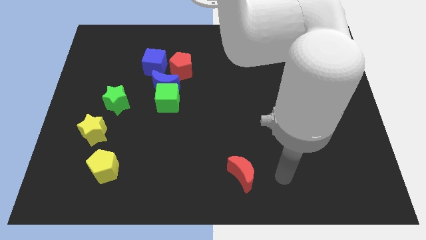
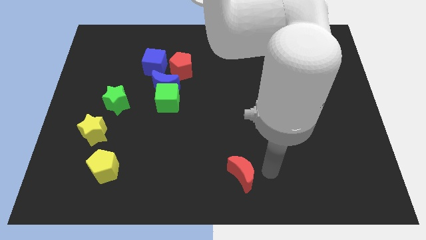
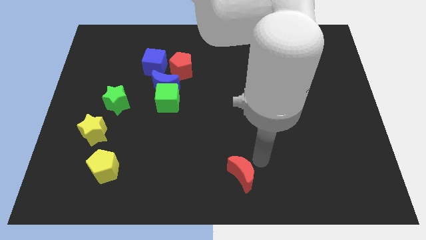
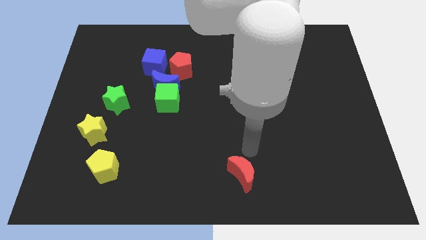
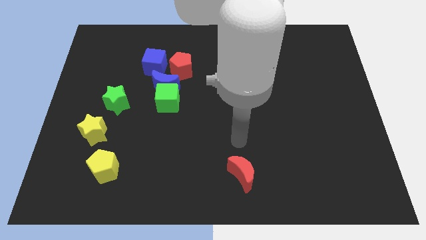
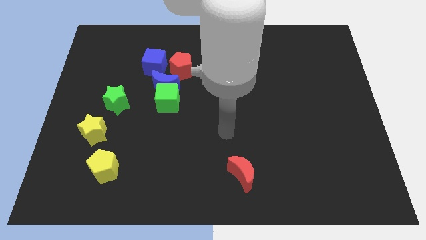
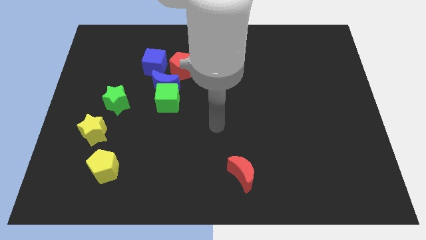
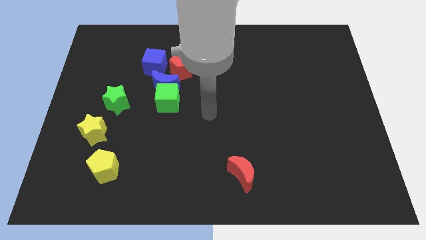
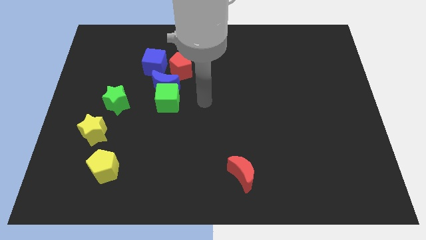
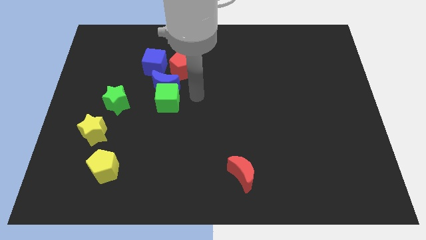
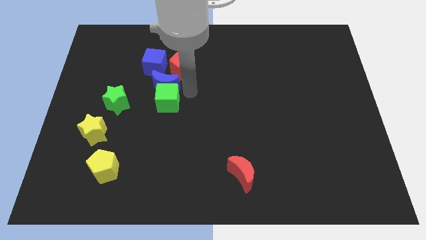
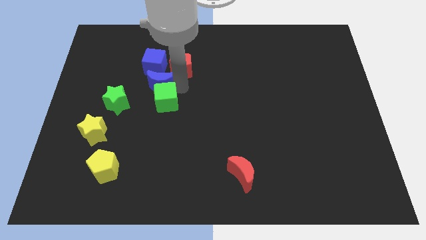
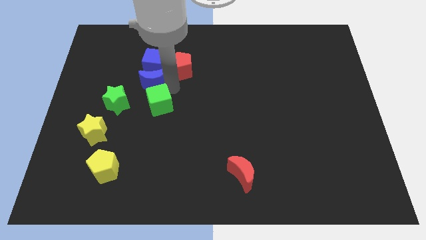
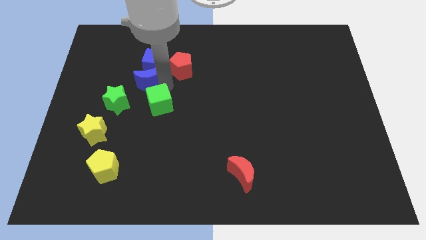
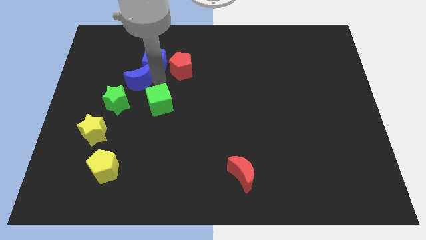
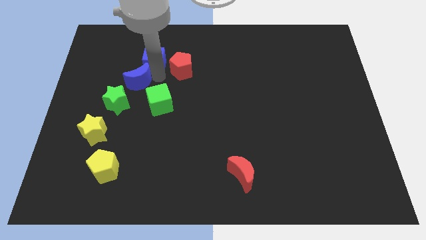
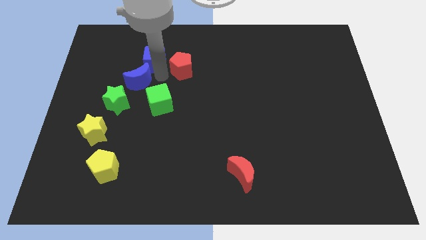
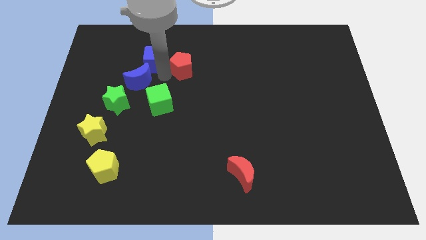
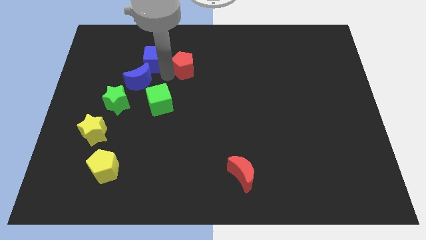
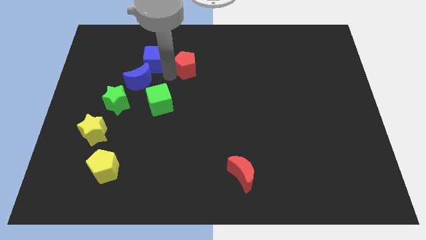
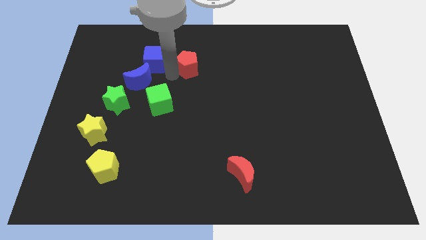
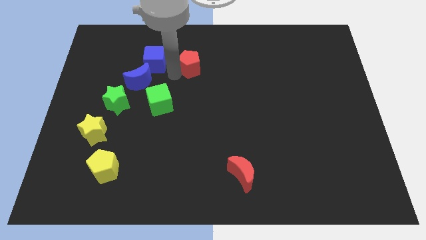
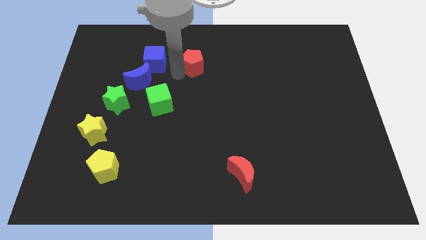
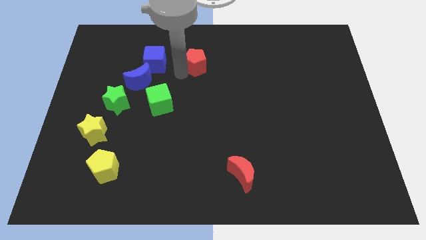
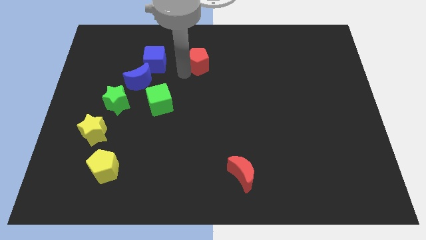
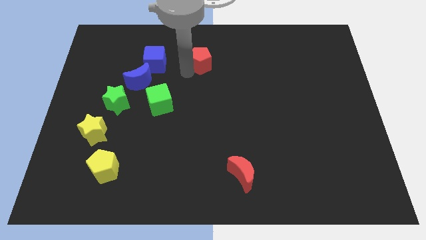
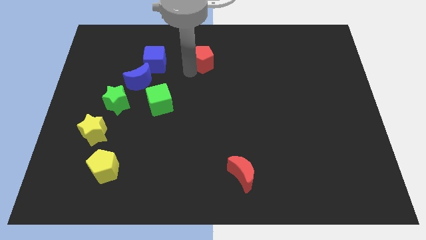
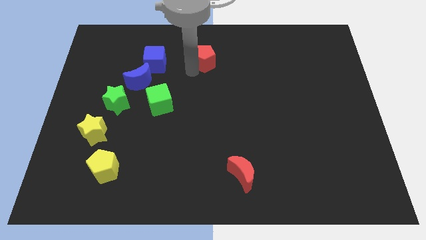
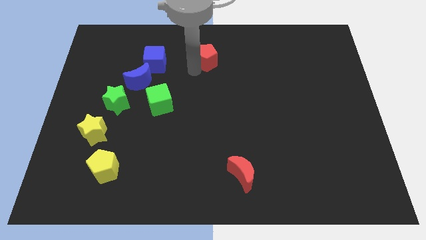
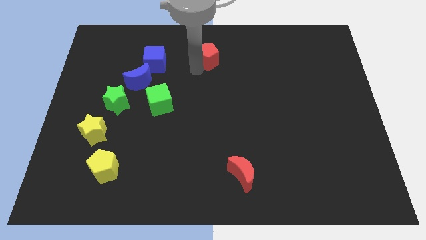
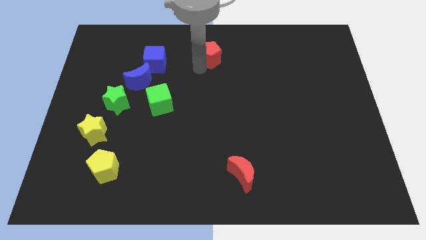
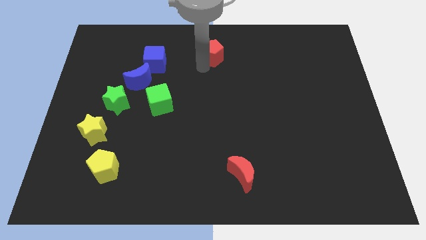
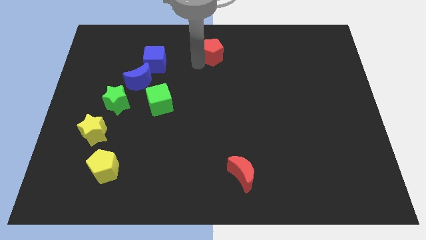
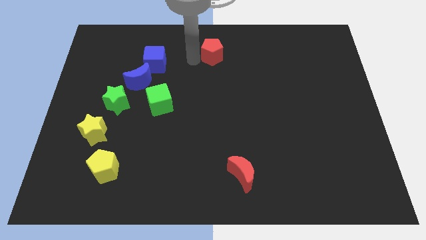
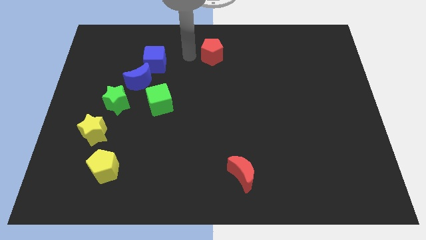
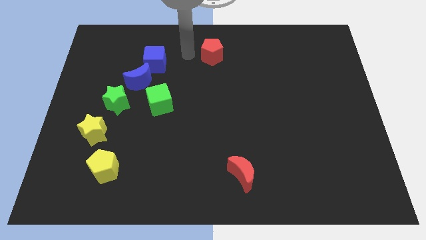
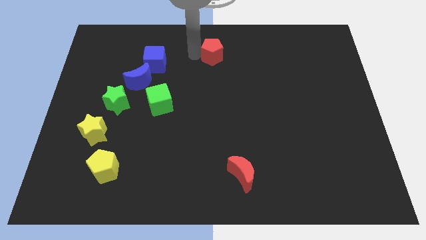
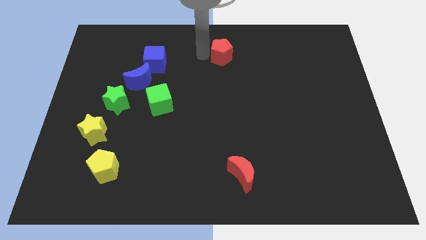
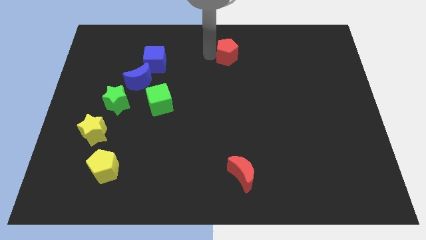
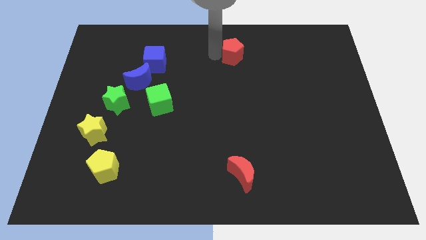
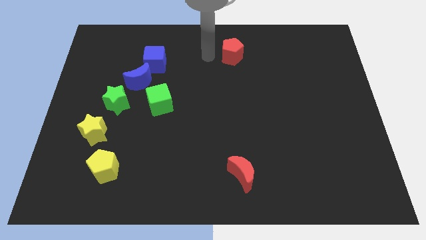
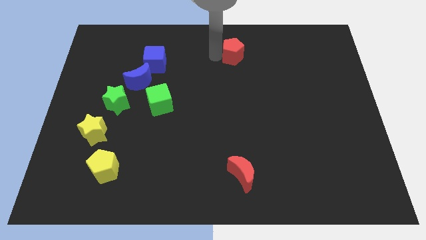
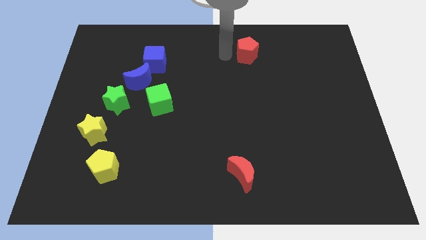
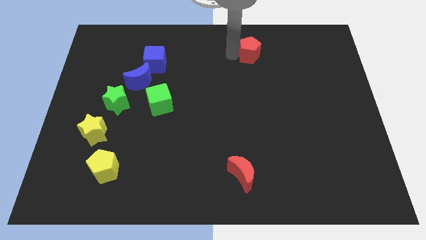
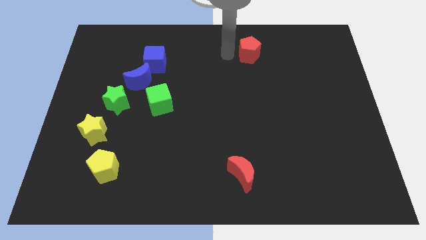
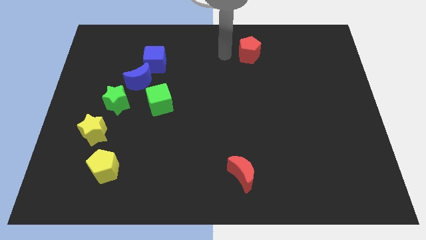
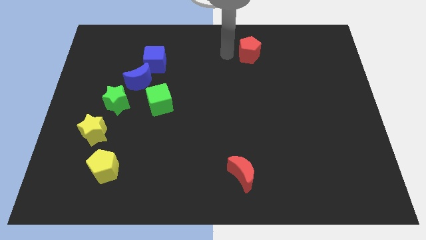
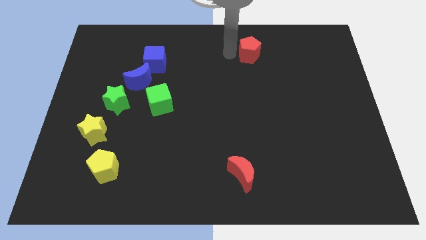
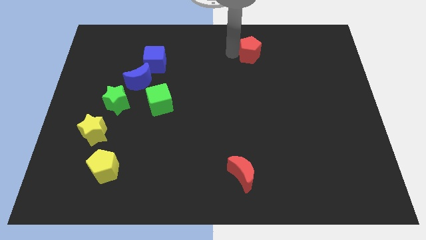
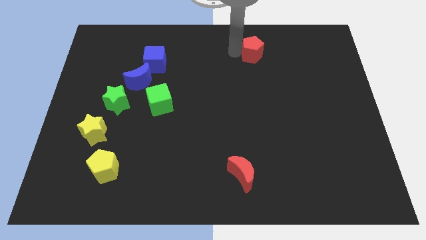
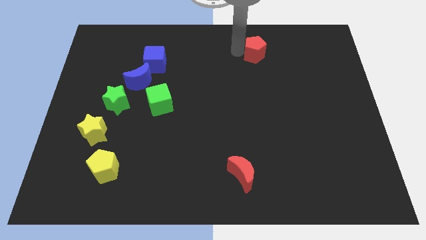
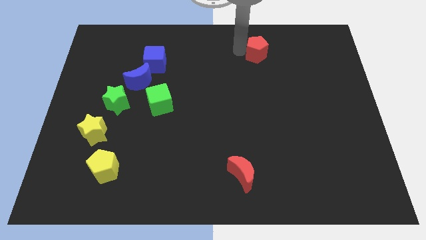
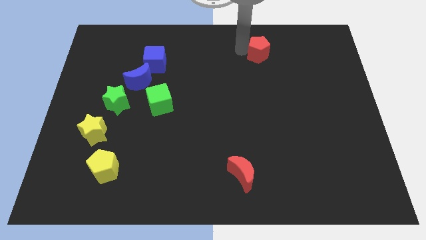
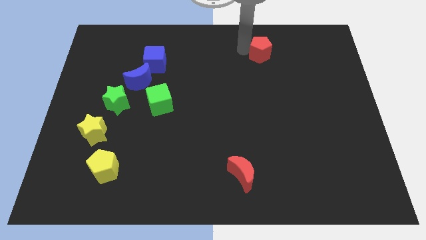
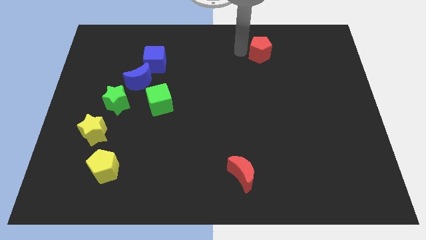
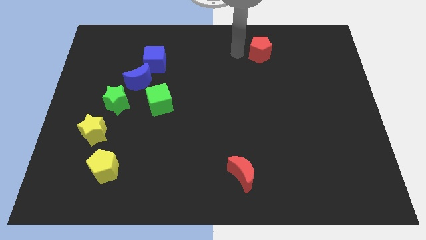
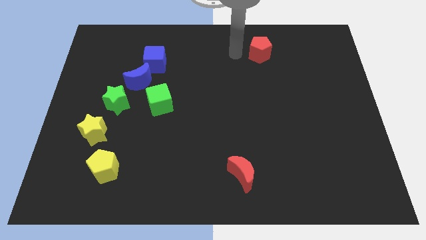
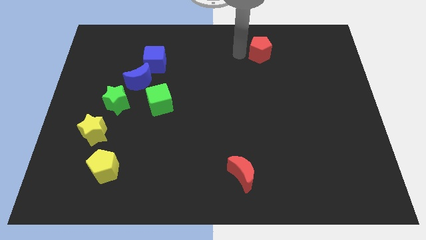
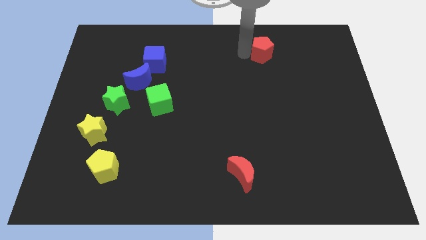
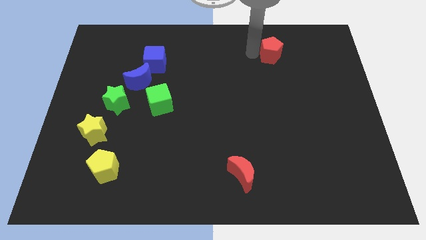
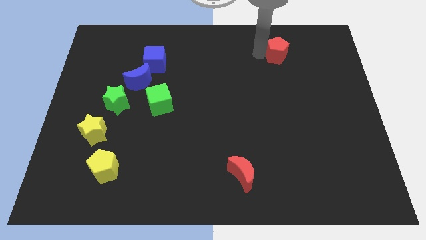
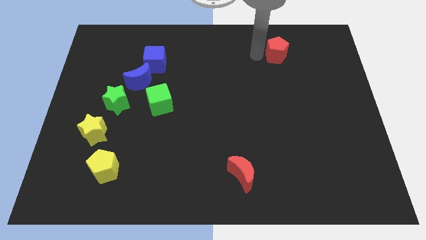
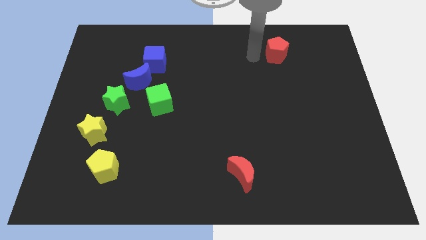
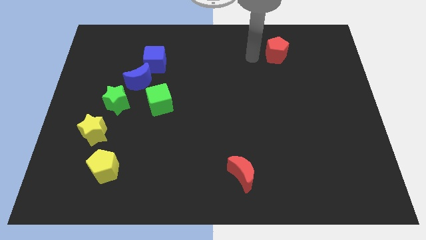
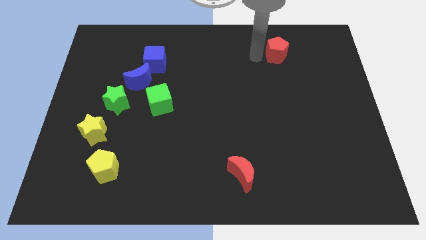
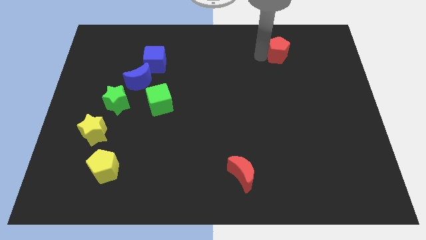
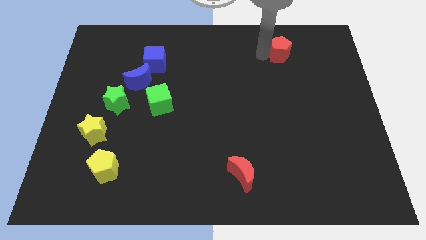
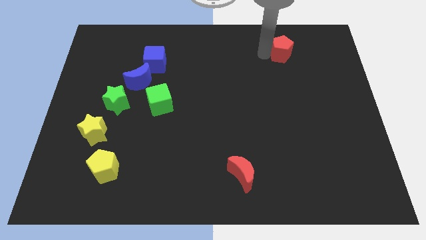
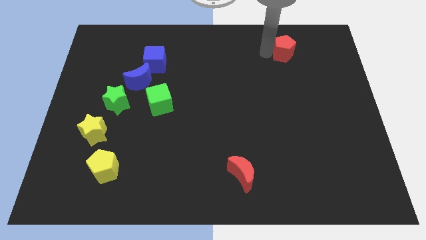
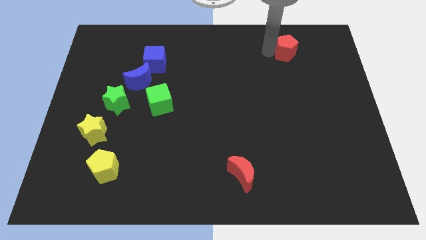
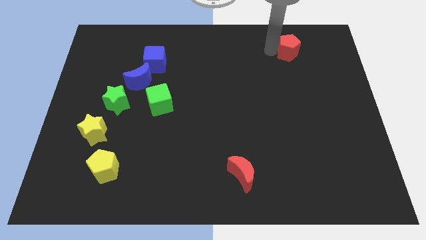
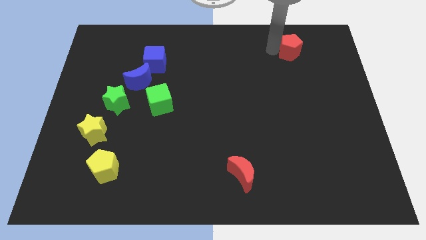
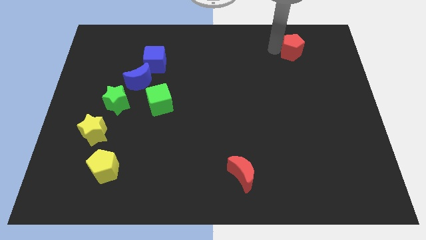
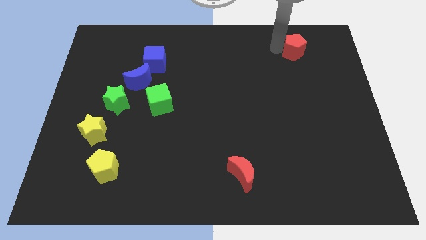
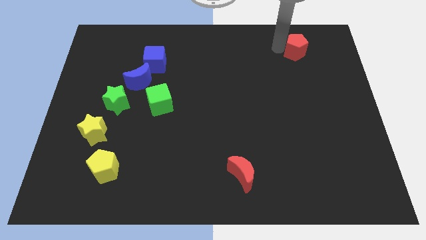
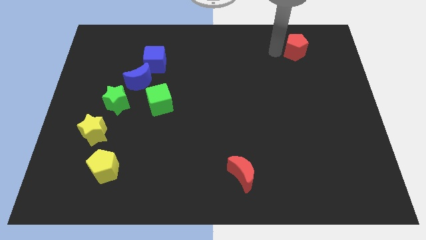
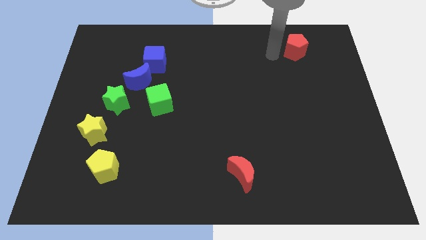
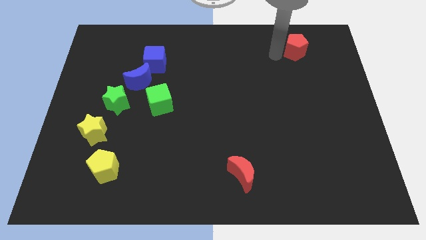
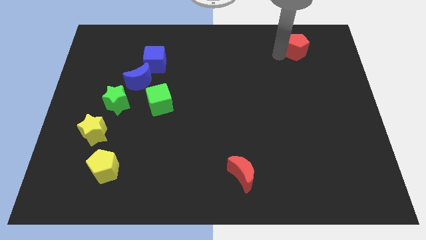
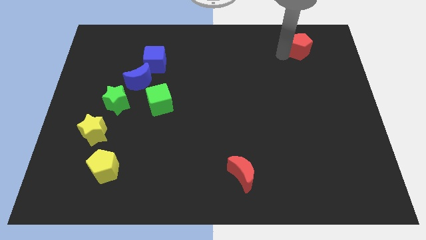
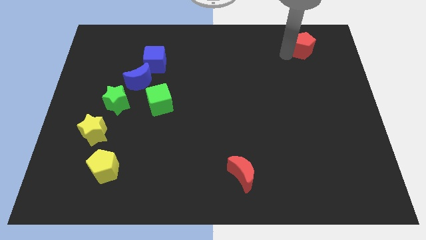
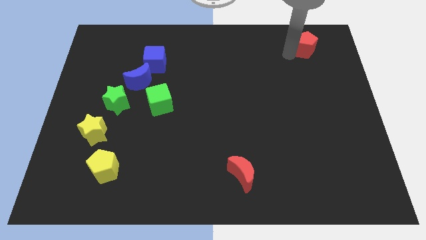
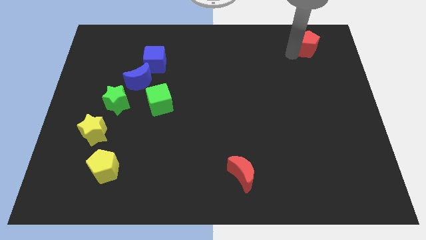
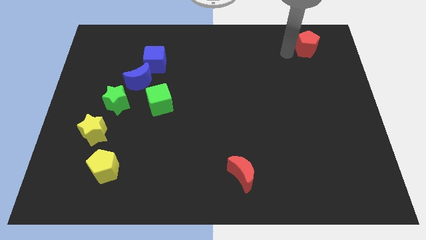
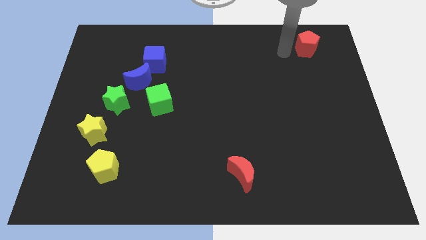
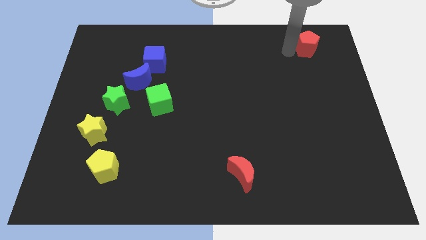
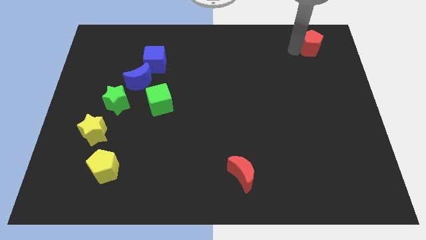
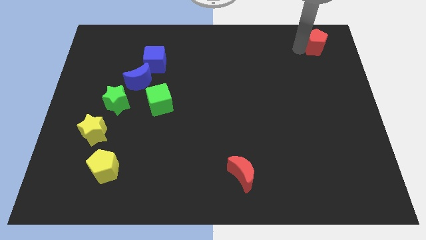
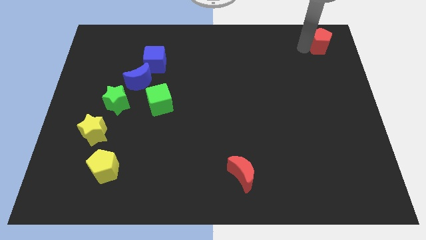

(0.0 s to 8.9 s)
put the red pentagon to the top right of the board
